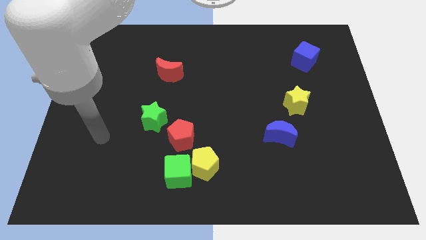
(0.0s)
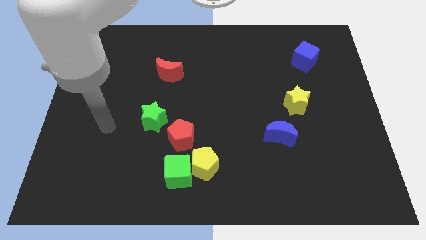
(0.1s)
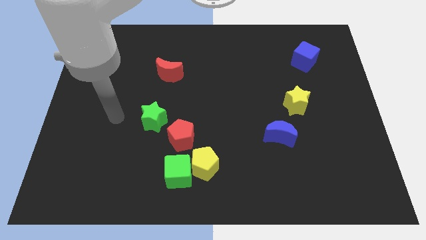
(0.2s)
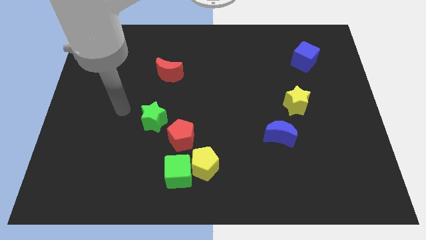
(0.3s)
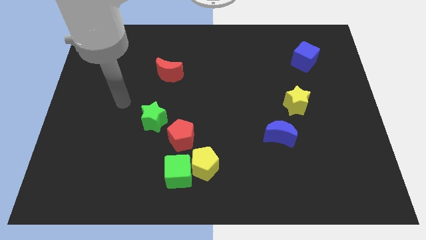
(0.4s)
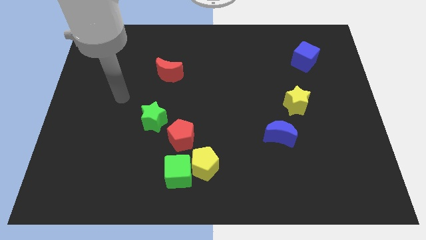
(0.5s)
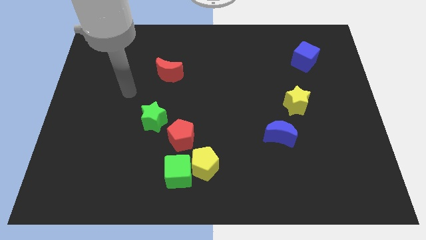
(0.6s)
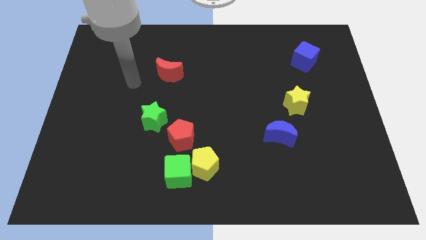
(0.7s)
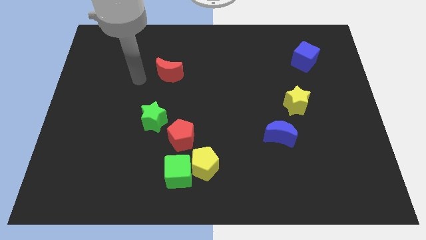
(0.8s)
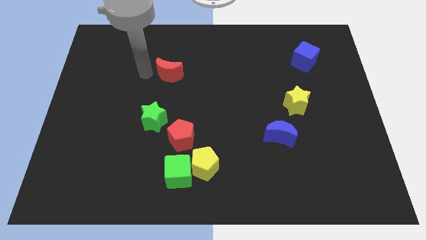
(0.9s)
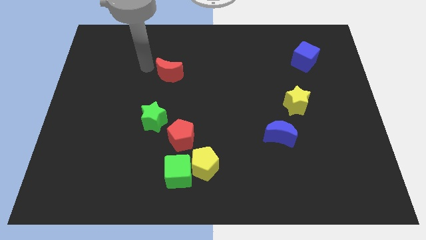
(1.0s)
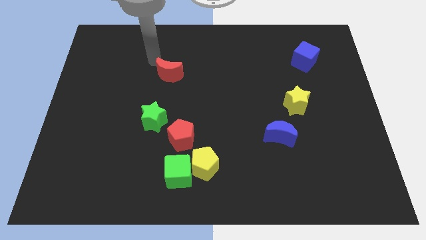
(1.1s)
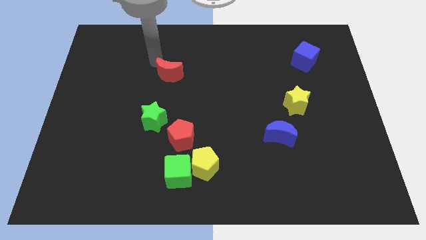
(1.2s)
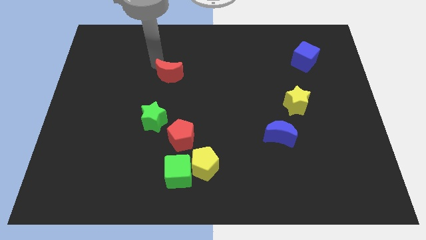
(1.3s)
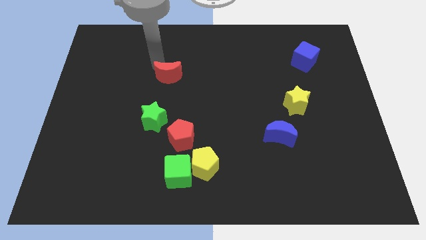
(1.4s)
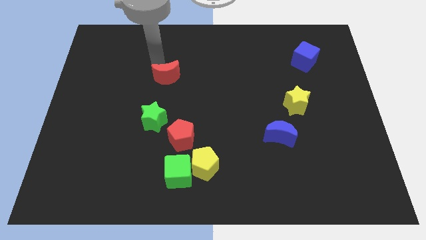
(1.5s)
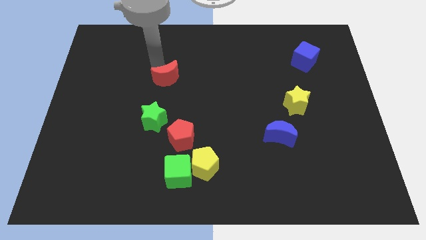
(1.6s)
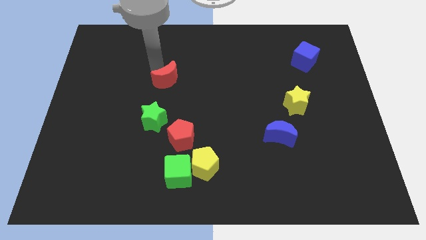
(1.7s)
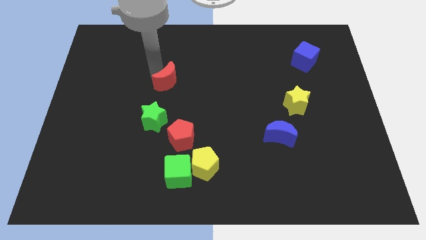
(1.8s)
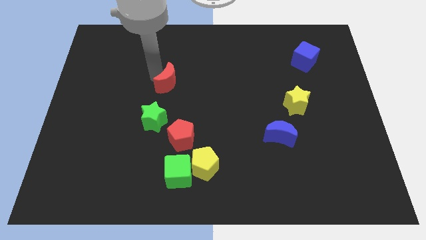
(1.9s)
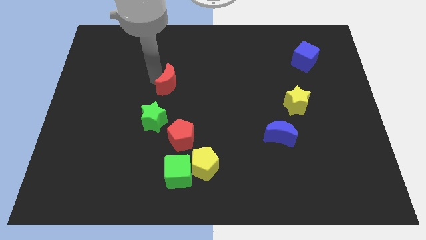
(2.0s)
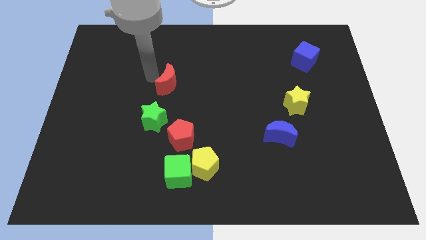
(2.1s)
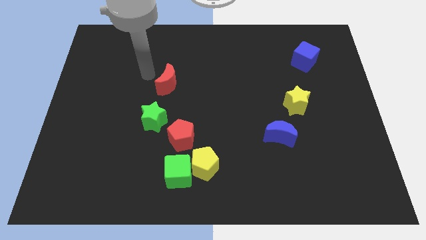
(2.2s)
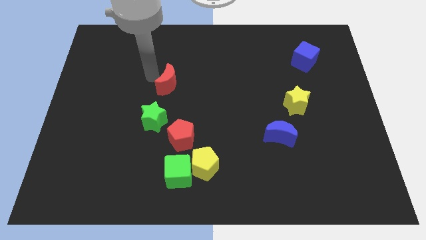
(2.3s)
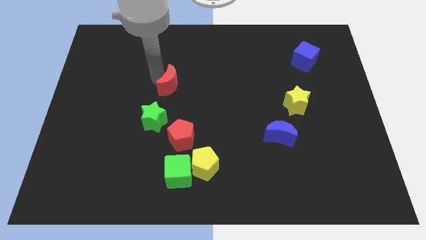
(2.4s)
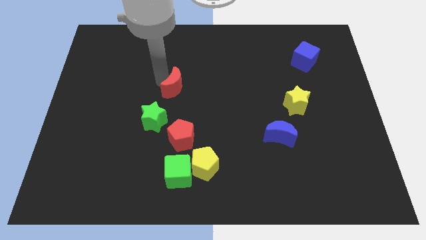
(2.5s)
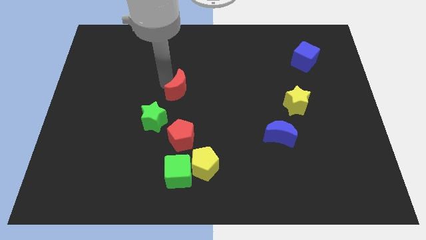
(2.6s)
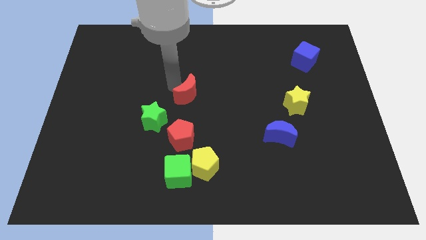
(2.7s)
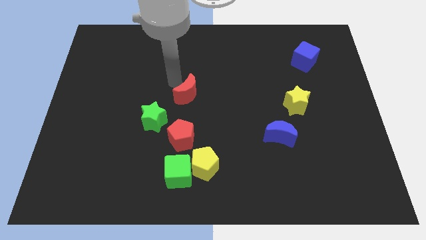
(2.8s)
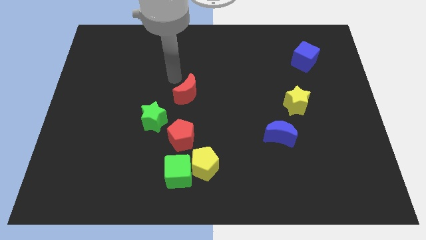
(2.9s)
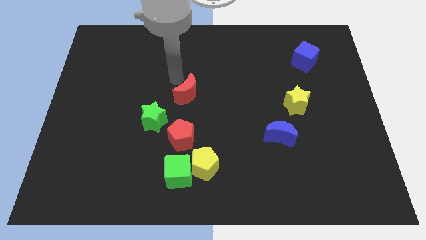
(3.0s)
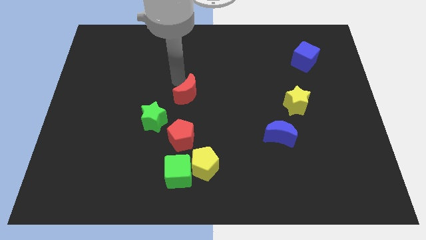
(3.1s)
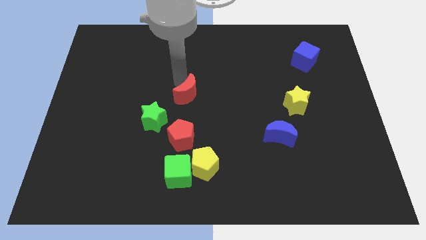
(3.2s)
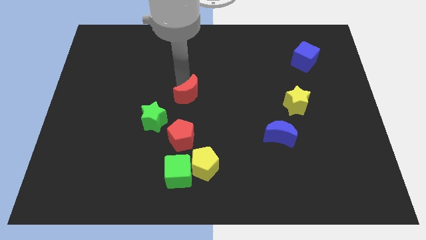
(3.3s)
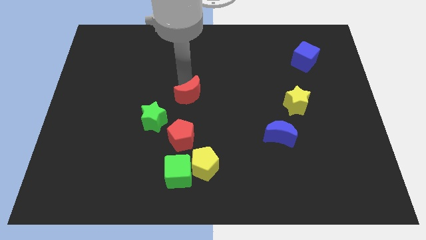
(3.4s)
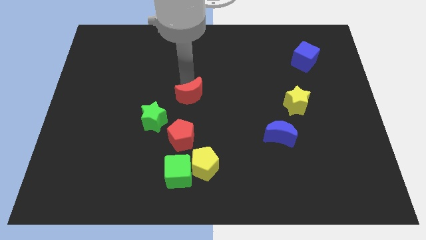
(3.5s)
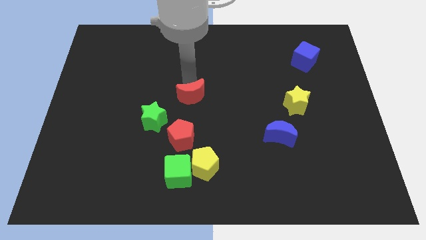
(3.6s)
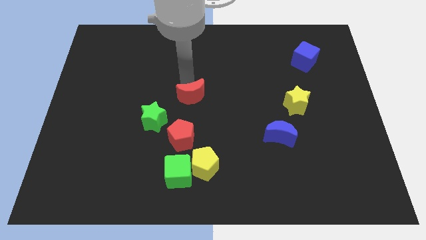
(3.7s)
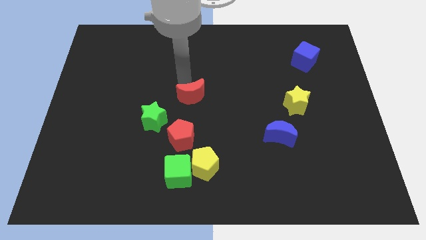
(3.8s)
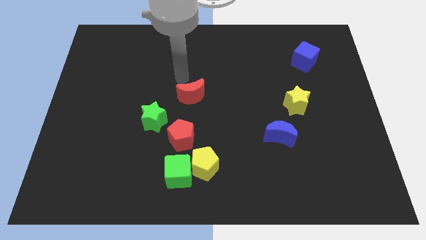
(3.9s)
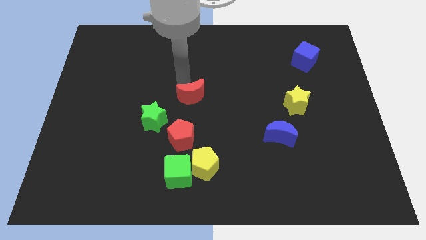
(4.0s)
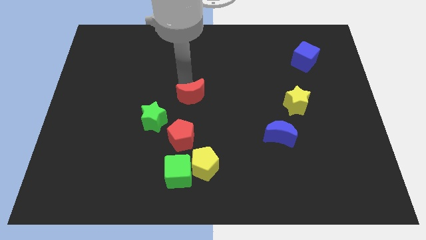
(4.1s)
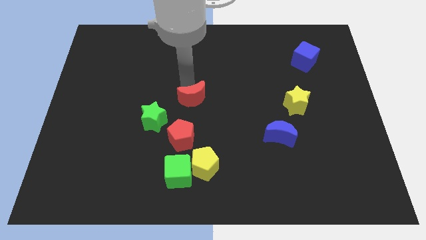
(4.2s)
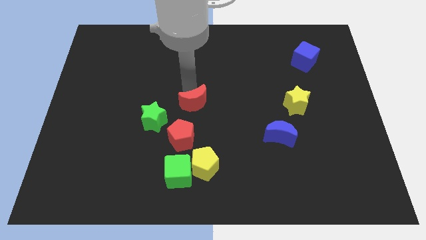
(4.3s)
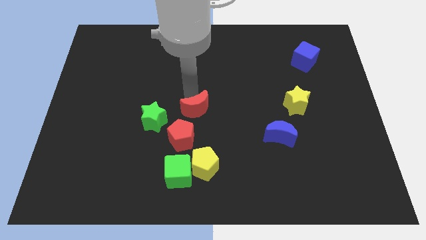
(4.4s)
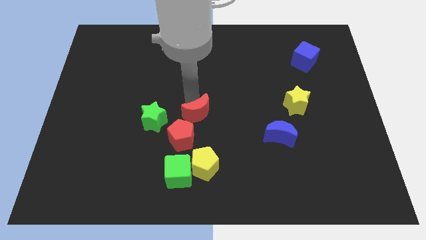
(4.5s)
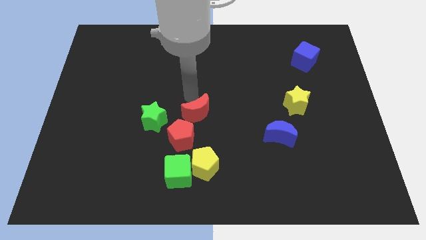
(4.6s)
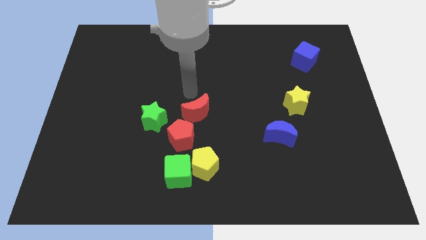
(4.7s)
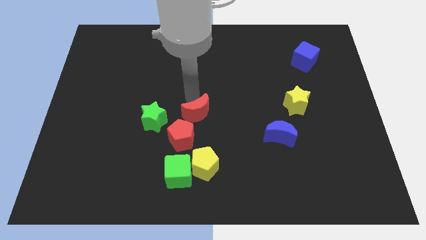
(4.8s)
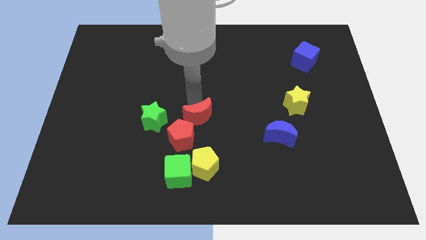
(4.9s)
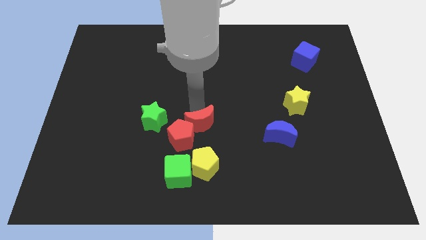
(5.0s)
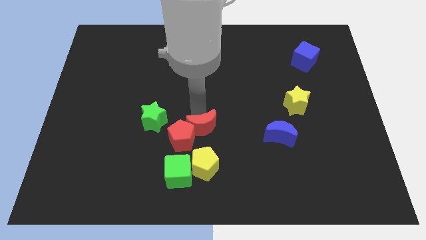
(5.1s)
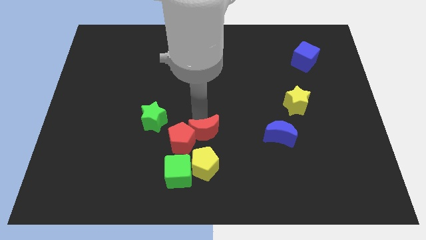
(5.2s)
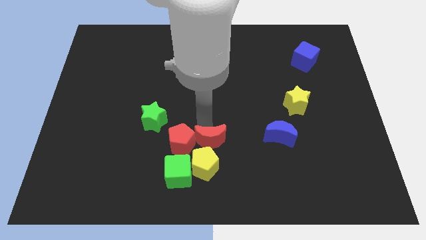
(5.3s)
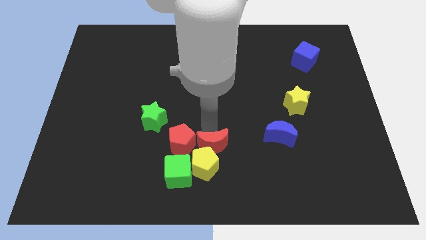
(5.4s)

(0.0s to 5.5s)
push the red moon next to the yellow pentagon

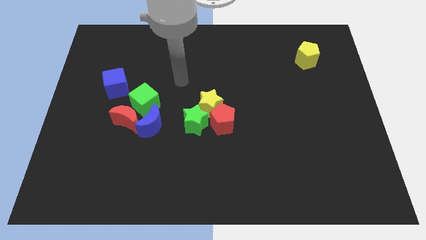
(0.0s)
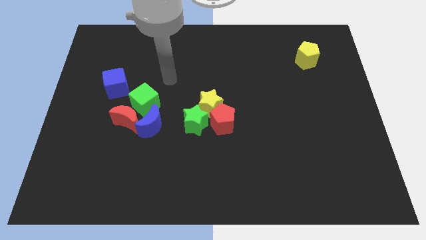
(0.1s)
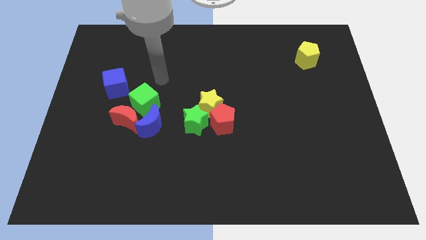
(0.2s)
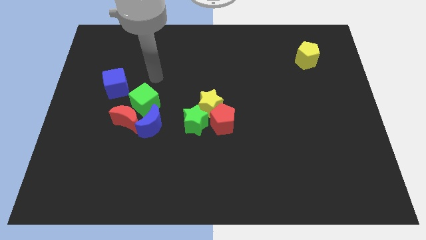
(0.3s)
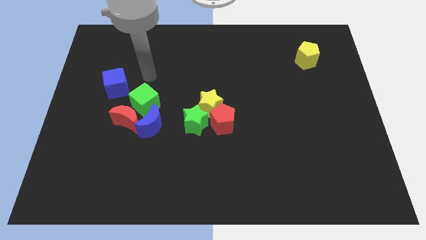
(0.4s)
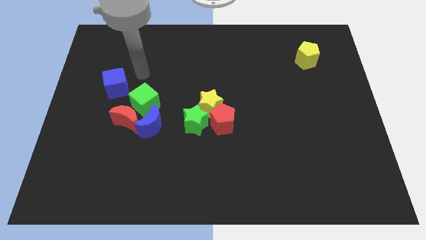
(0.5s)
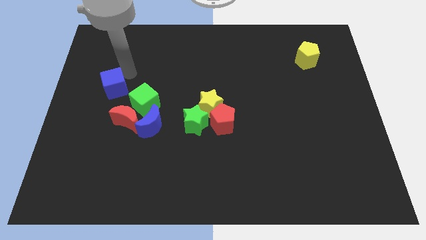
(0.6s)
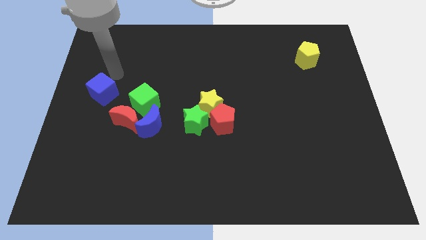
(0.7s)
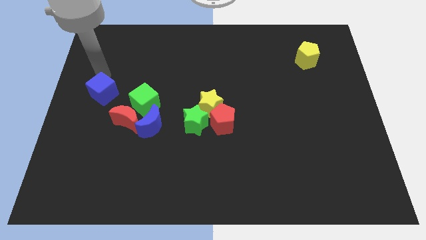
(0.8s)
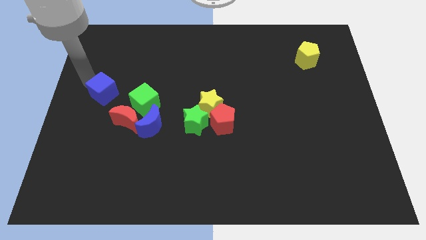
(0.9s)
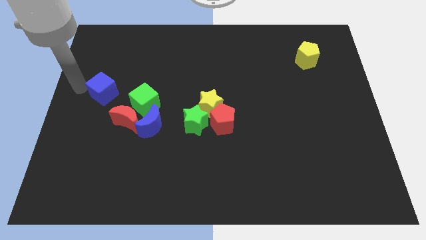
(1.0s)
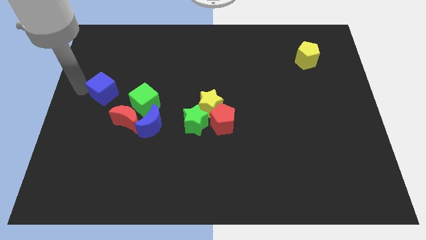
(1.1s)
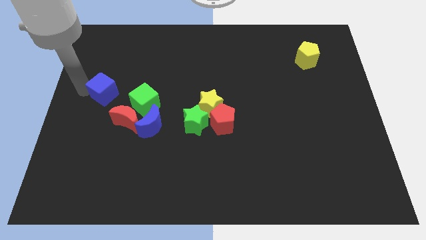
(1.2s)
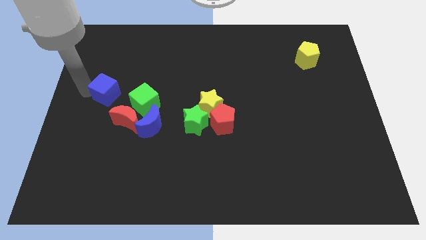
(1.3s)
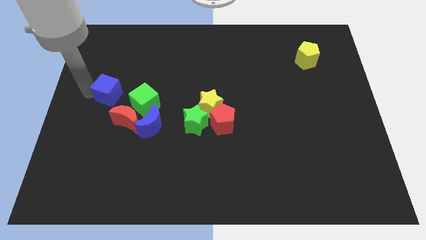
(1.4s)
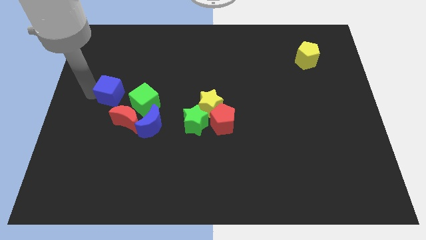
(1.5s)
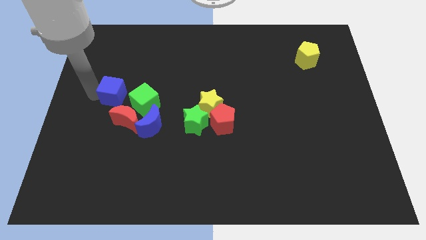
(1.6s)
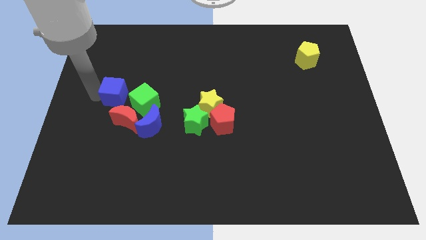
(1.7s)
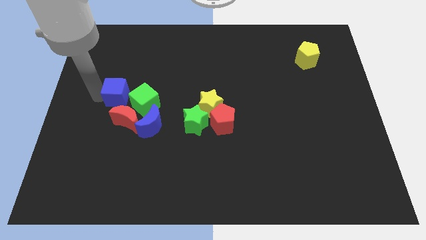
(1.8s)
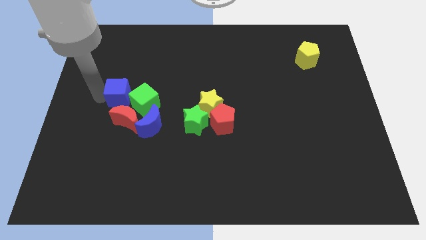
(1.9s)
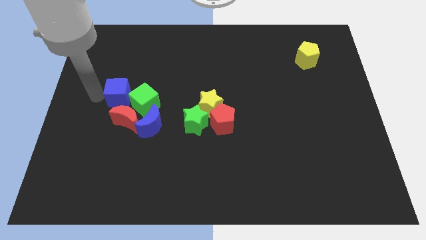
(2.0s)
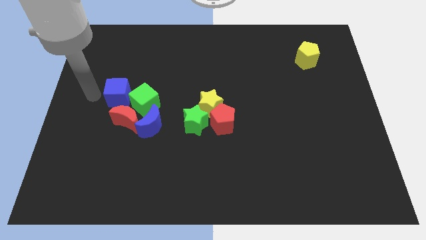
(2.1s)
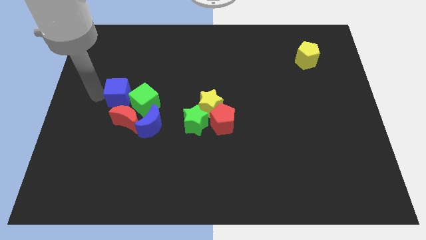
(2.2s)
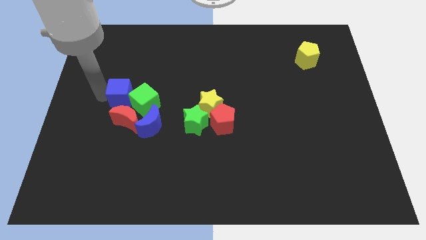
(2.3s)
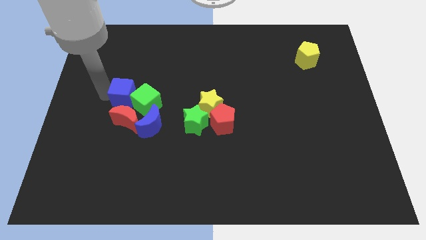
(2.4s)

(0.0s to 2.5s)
move the blue cube close to the green cube
